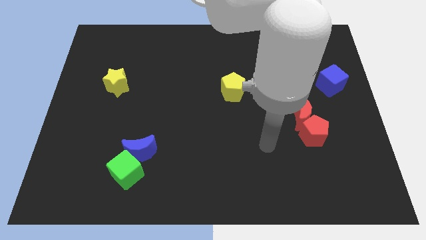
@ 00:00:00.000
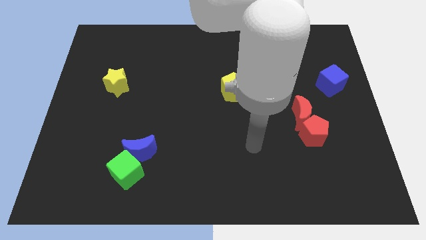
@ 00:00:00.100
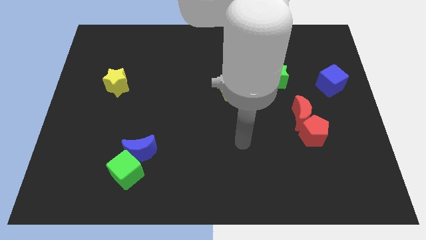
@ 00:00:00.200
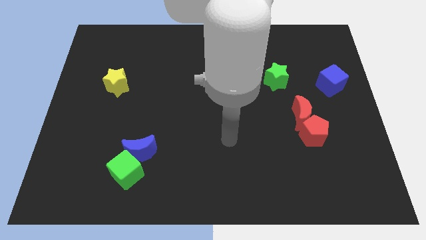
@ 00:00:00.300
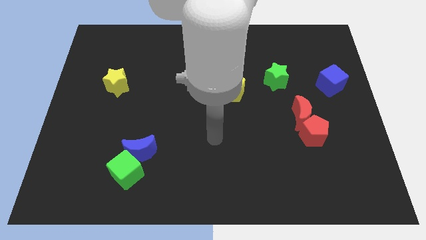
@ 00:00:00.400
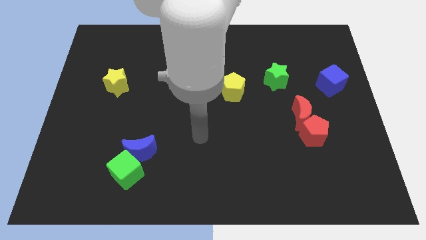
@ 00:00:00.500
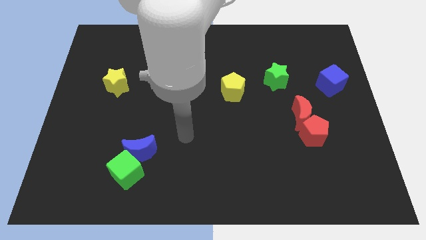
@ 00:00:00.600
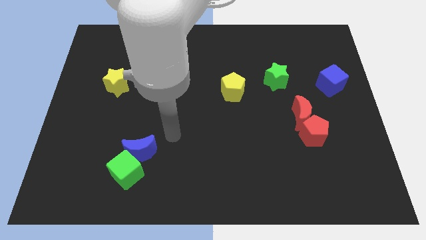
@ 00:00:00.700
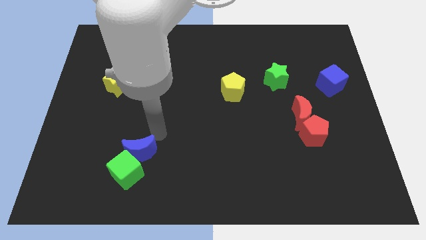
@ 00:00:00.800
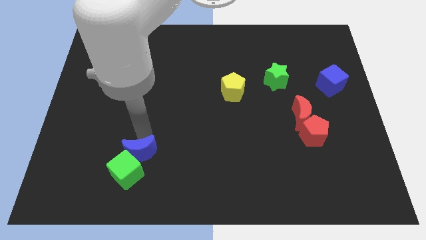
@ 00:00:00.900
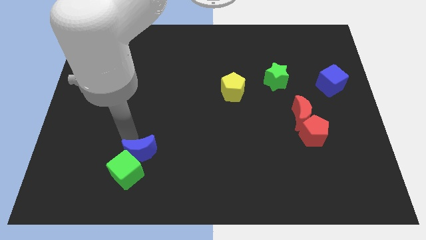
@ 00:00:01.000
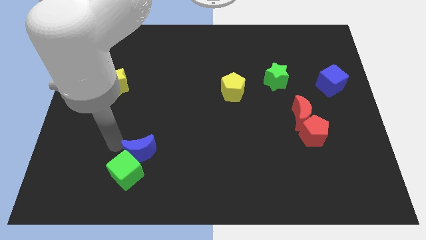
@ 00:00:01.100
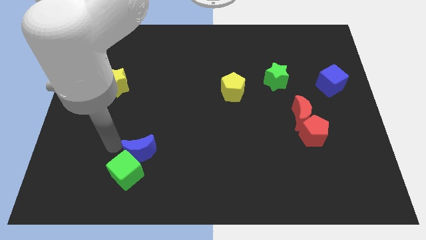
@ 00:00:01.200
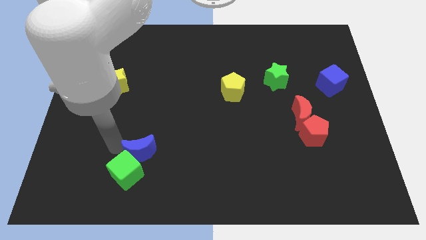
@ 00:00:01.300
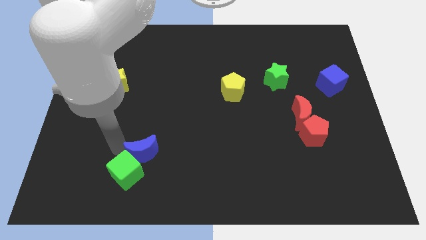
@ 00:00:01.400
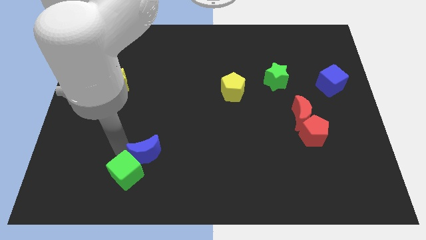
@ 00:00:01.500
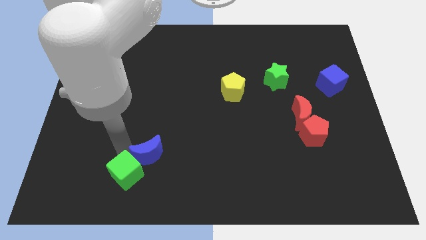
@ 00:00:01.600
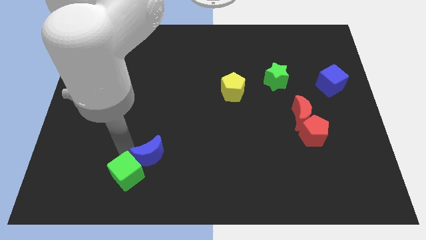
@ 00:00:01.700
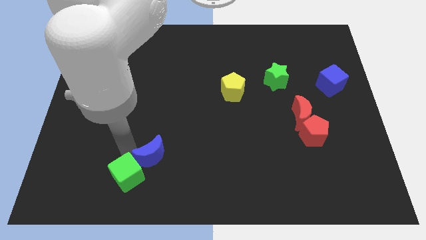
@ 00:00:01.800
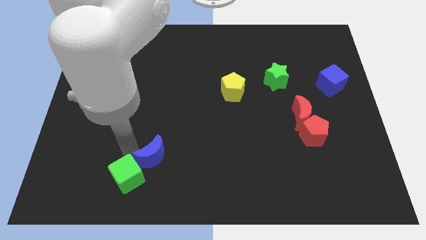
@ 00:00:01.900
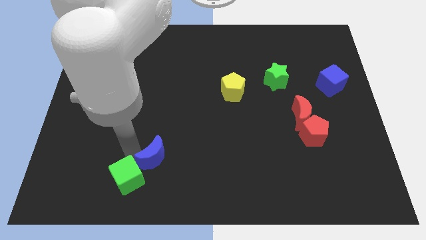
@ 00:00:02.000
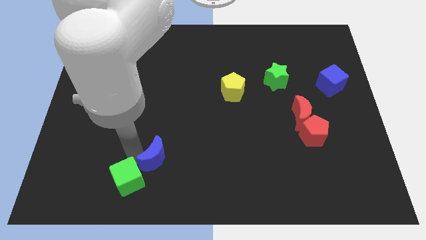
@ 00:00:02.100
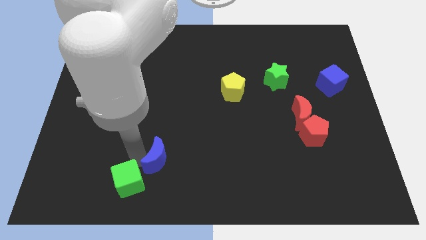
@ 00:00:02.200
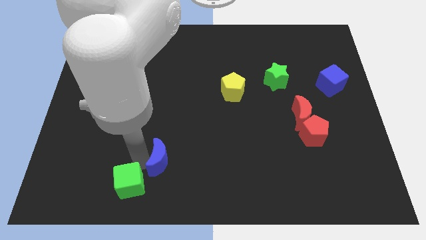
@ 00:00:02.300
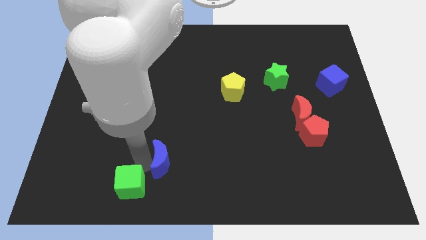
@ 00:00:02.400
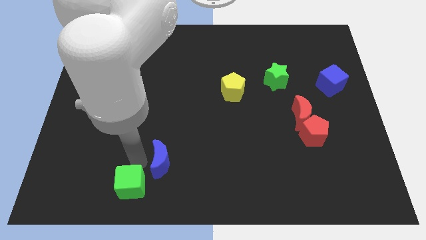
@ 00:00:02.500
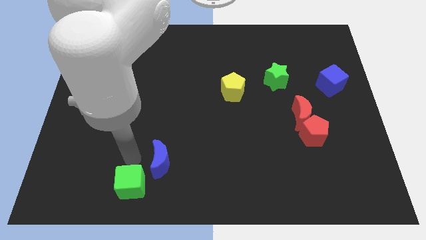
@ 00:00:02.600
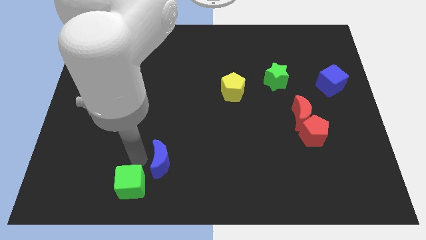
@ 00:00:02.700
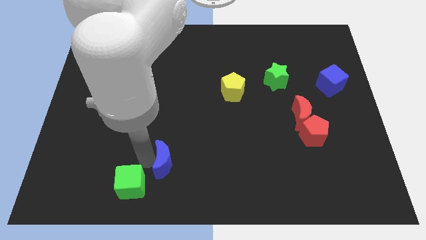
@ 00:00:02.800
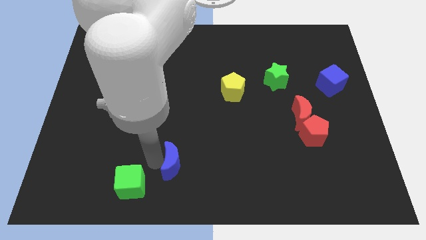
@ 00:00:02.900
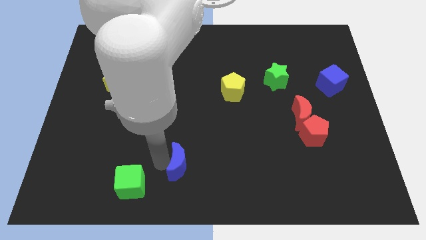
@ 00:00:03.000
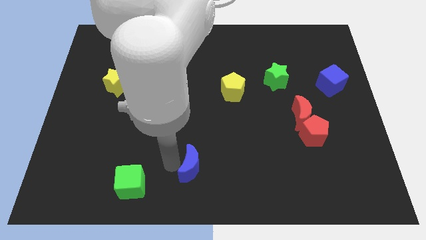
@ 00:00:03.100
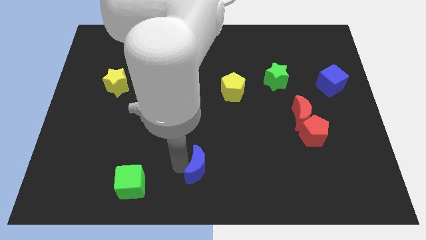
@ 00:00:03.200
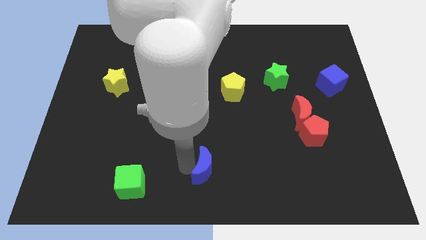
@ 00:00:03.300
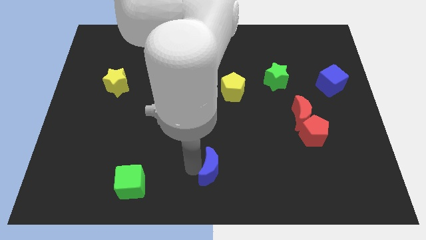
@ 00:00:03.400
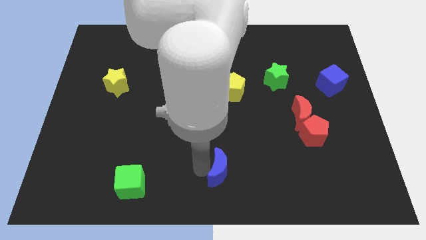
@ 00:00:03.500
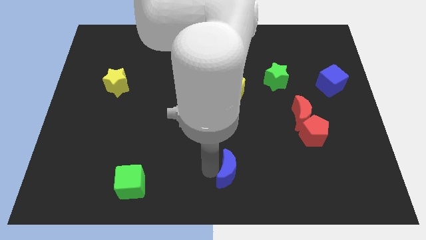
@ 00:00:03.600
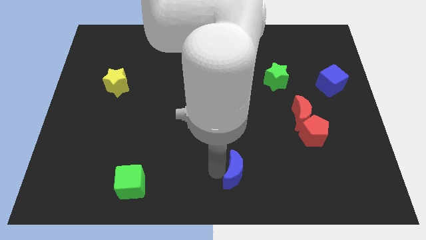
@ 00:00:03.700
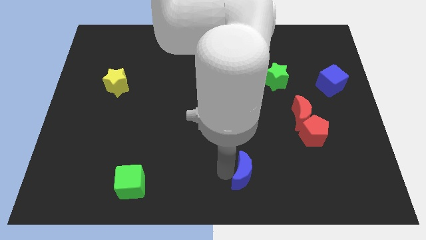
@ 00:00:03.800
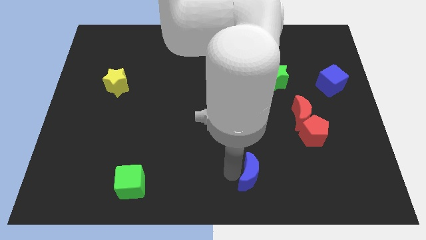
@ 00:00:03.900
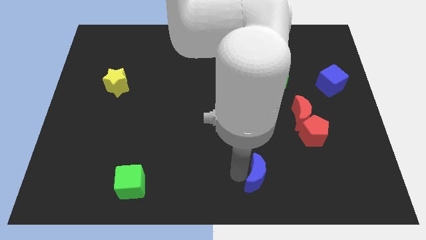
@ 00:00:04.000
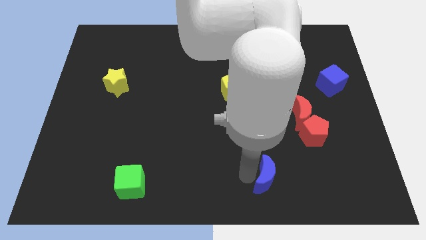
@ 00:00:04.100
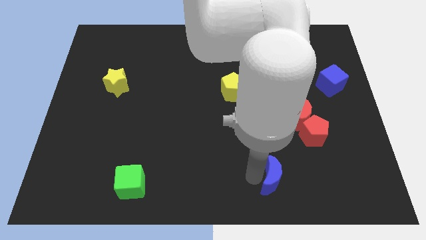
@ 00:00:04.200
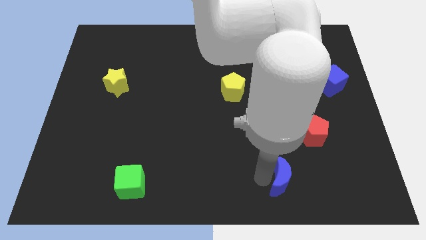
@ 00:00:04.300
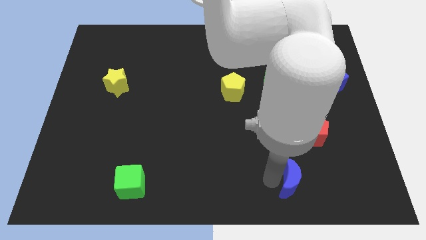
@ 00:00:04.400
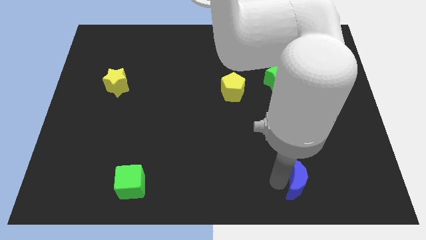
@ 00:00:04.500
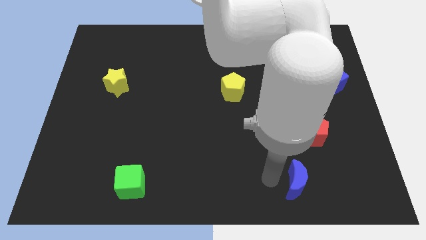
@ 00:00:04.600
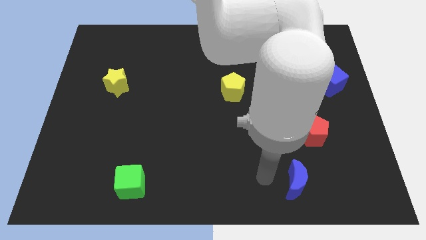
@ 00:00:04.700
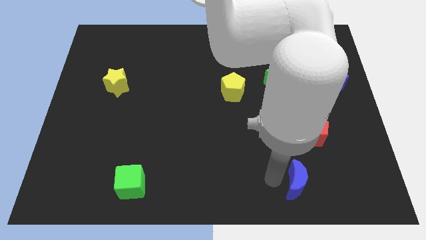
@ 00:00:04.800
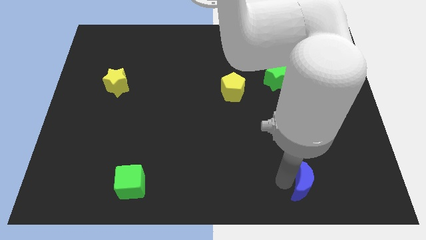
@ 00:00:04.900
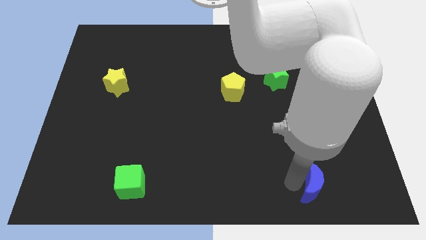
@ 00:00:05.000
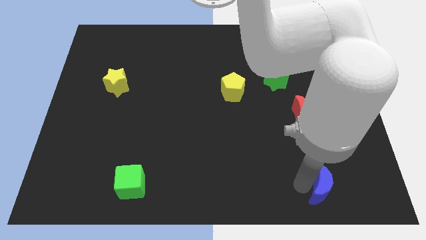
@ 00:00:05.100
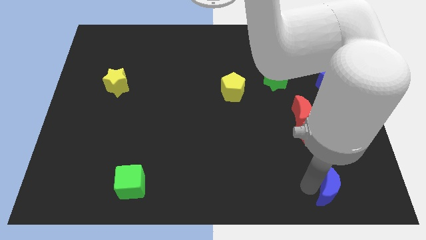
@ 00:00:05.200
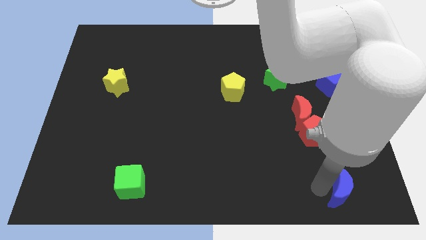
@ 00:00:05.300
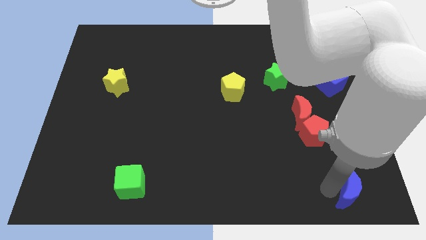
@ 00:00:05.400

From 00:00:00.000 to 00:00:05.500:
put the blue moon to the lower right corner
